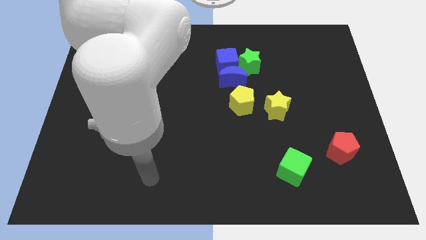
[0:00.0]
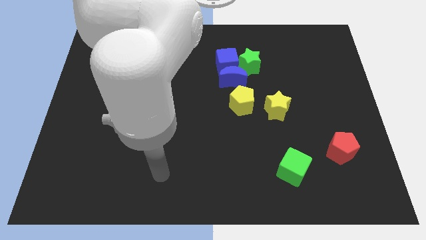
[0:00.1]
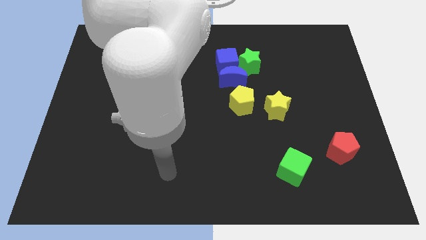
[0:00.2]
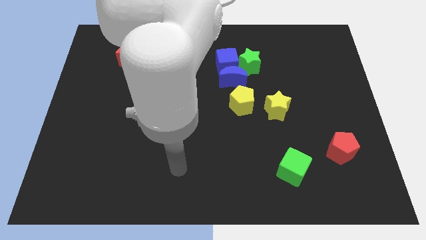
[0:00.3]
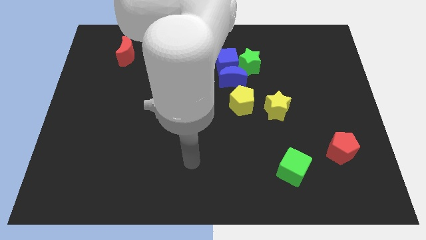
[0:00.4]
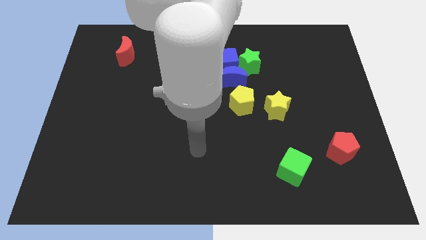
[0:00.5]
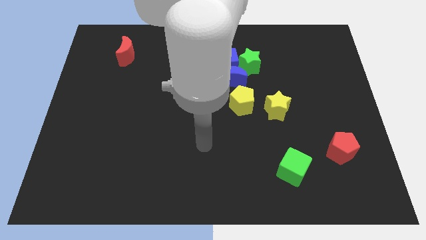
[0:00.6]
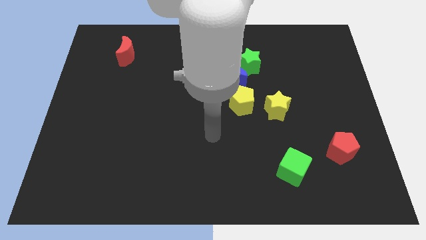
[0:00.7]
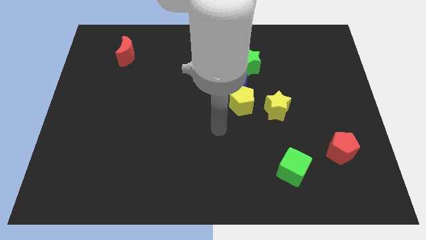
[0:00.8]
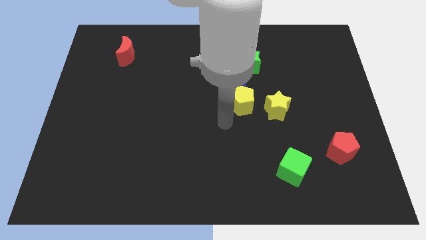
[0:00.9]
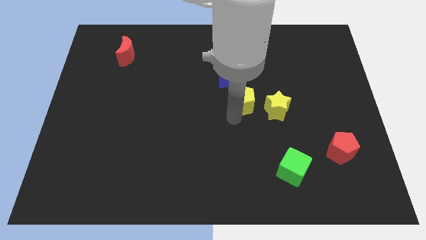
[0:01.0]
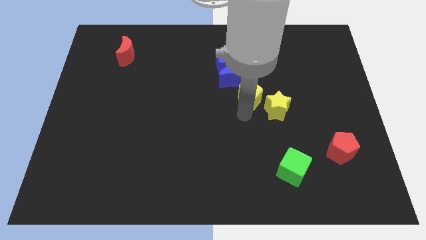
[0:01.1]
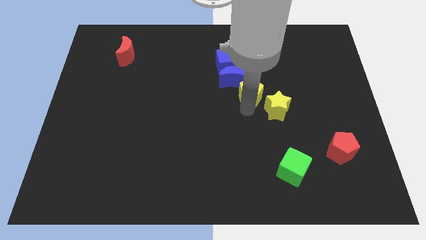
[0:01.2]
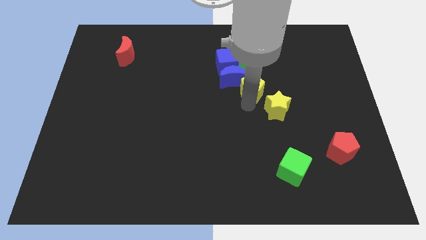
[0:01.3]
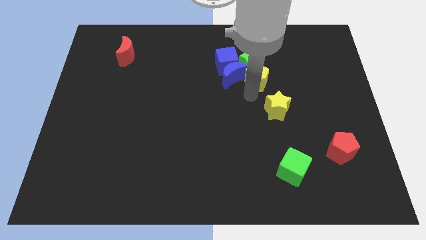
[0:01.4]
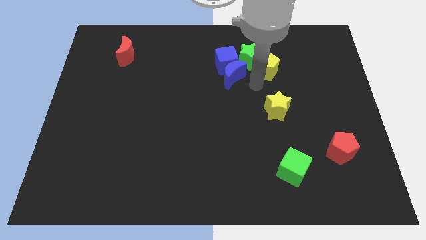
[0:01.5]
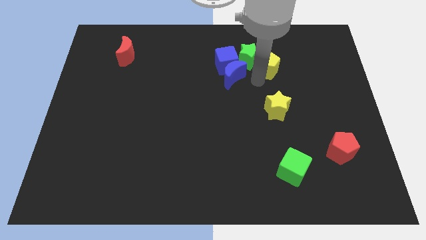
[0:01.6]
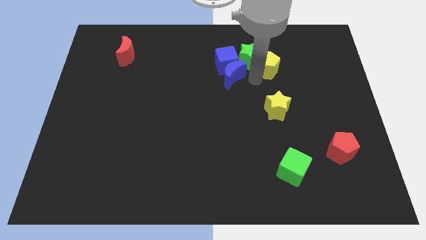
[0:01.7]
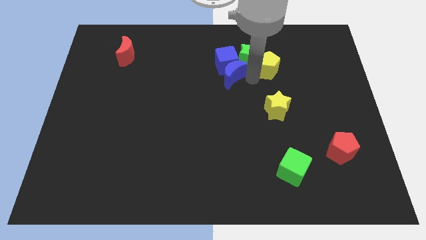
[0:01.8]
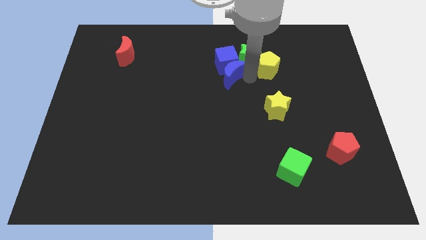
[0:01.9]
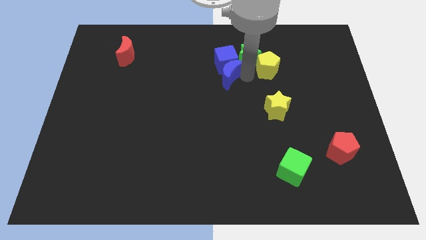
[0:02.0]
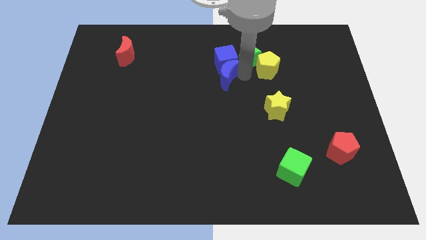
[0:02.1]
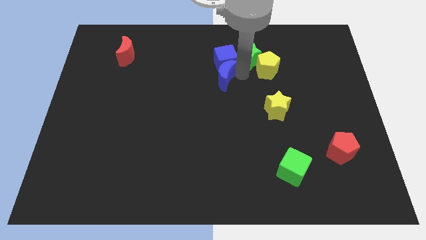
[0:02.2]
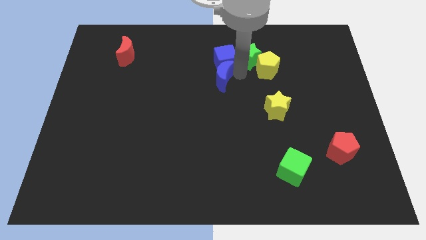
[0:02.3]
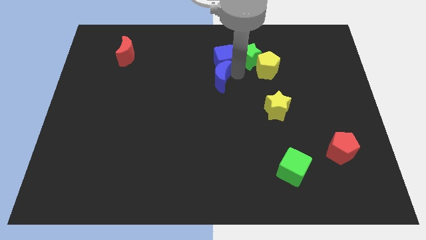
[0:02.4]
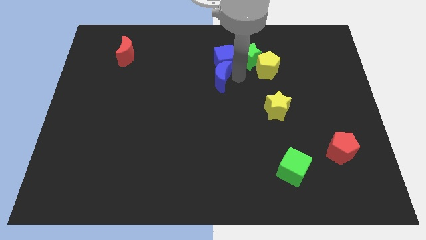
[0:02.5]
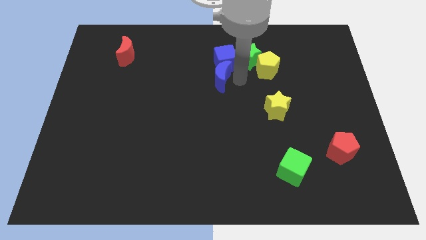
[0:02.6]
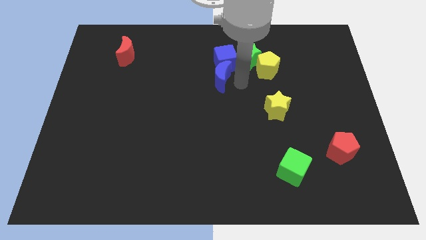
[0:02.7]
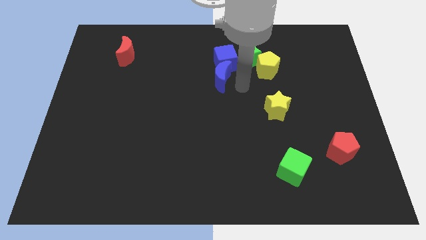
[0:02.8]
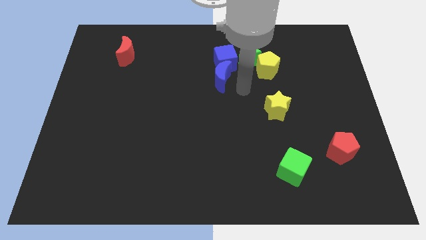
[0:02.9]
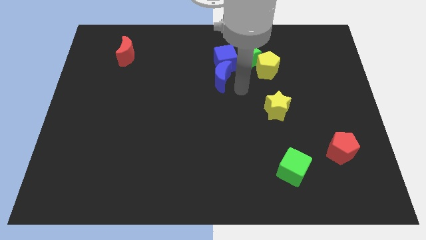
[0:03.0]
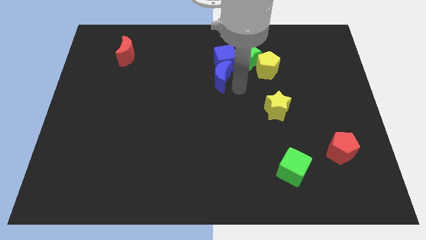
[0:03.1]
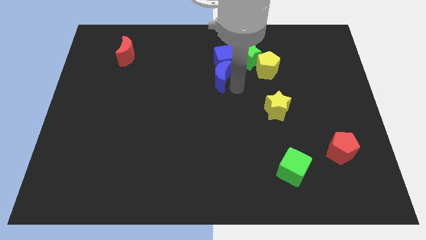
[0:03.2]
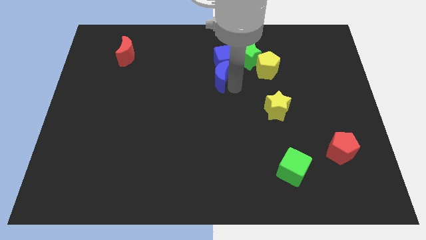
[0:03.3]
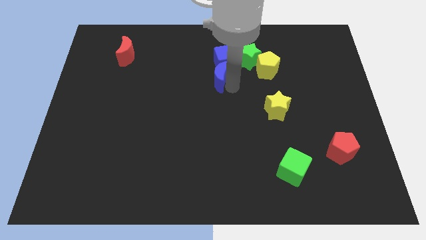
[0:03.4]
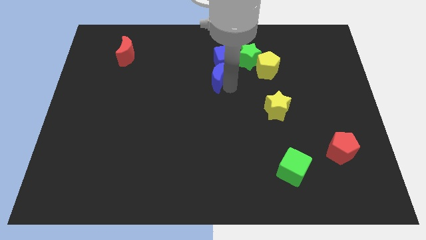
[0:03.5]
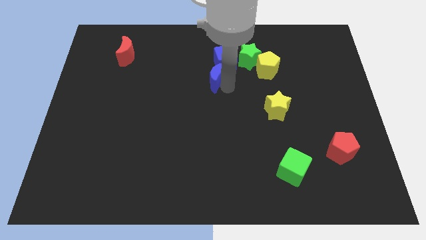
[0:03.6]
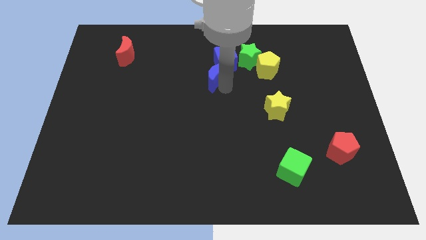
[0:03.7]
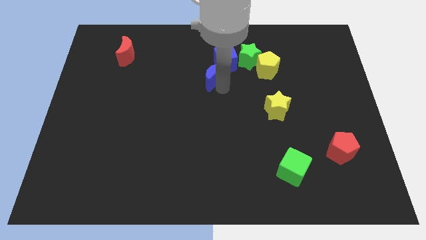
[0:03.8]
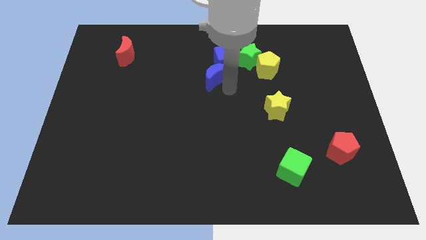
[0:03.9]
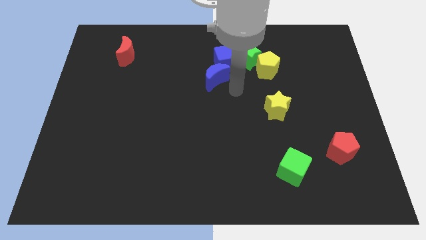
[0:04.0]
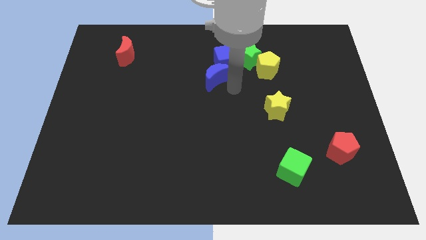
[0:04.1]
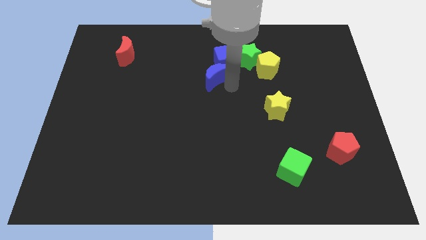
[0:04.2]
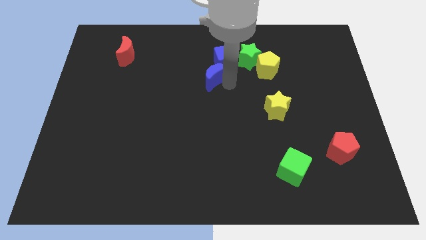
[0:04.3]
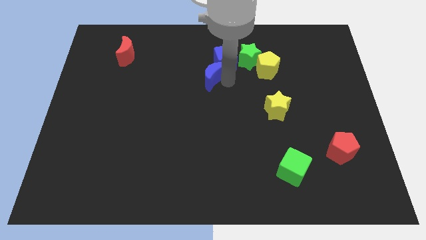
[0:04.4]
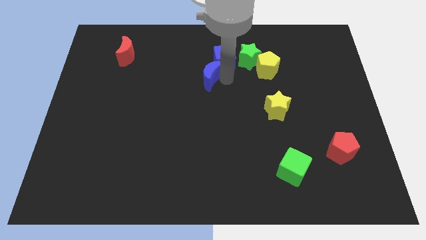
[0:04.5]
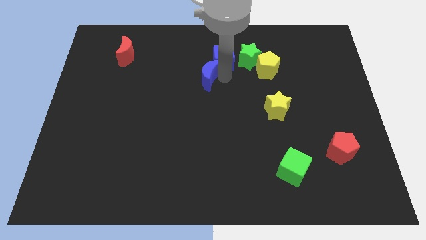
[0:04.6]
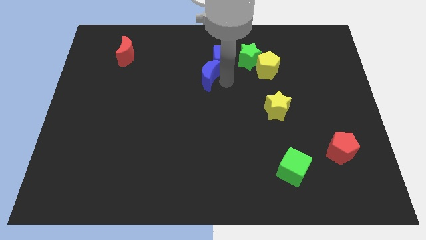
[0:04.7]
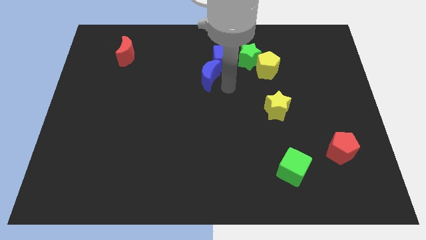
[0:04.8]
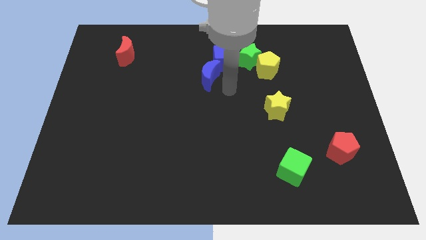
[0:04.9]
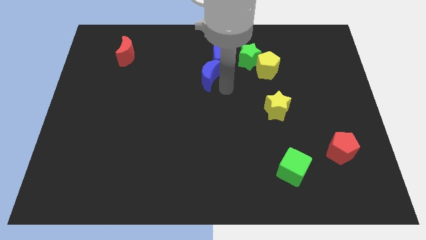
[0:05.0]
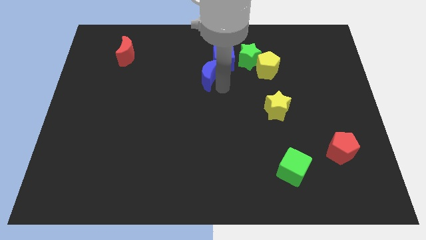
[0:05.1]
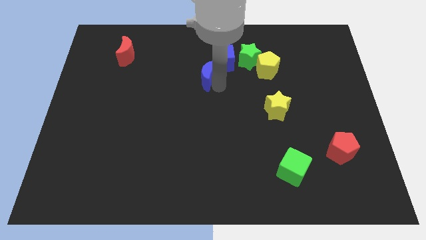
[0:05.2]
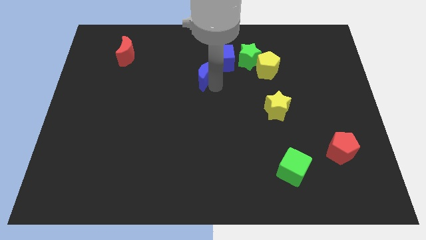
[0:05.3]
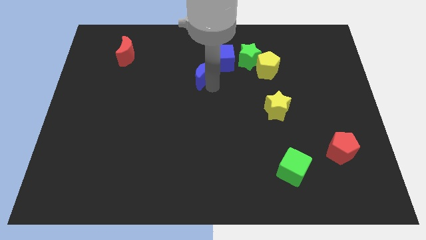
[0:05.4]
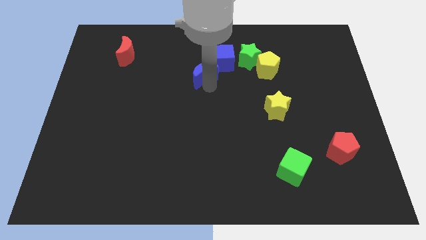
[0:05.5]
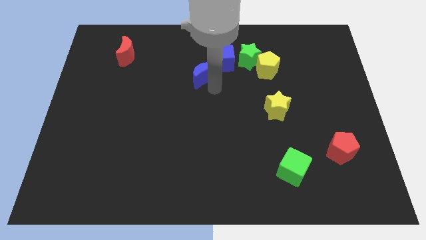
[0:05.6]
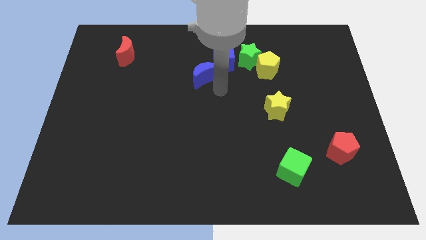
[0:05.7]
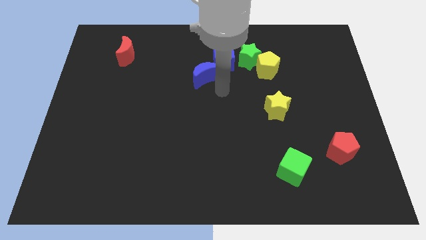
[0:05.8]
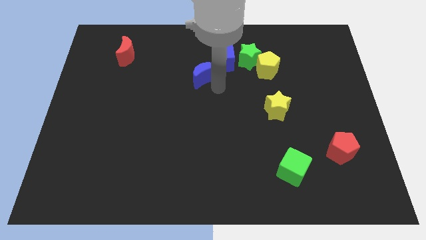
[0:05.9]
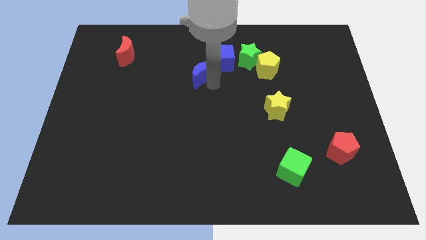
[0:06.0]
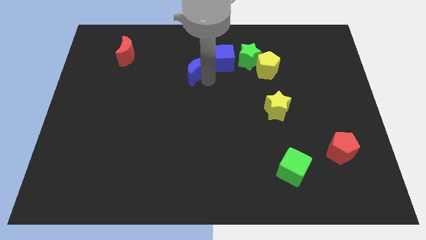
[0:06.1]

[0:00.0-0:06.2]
put the blue moon to the left side of the blue cube

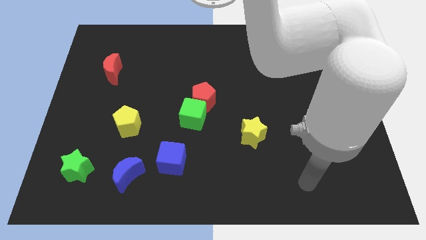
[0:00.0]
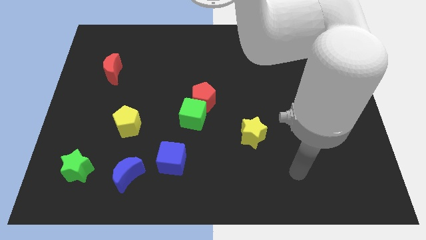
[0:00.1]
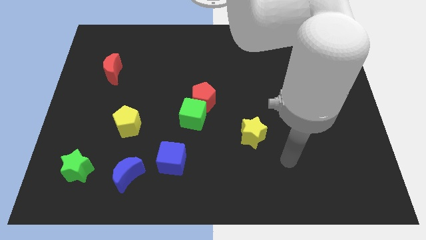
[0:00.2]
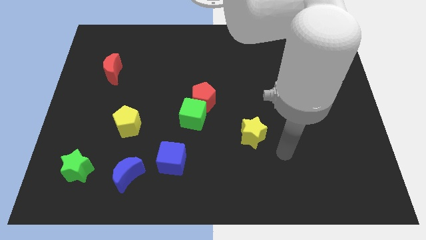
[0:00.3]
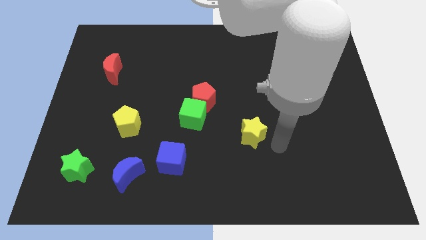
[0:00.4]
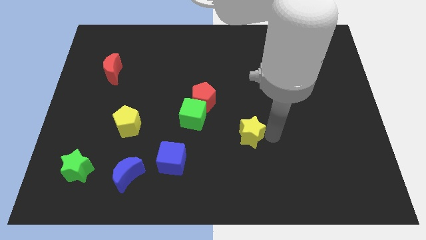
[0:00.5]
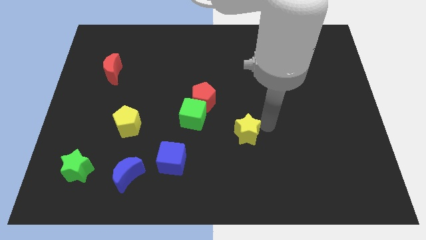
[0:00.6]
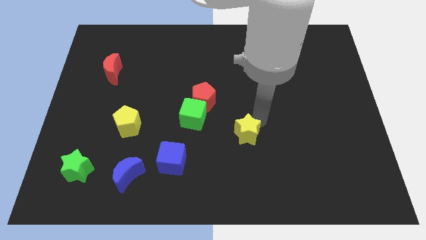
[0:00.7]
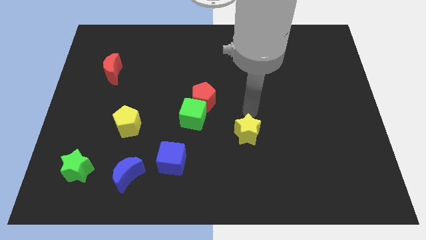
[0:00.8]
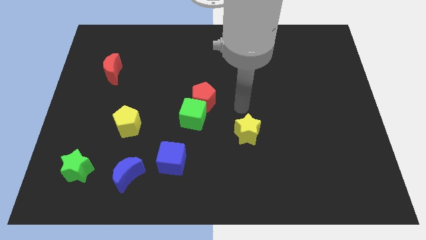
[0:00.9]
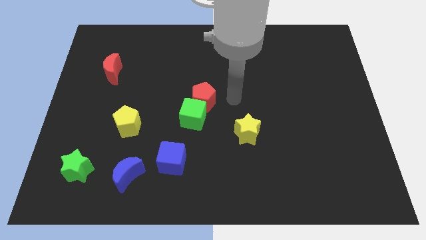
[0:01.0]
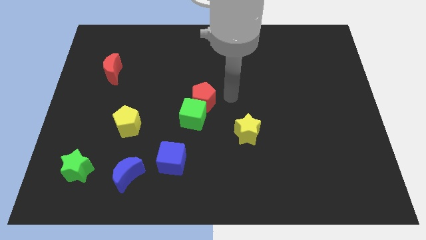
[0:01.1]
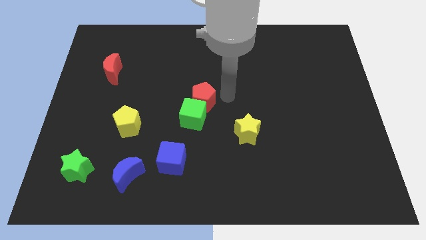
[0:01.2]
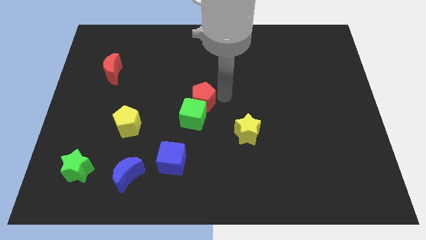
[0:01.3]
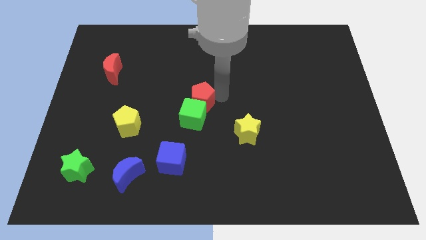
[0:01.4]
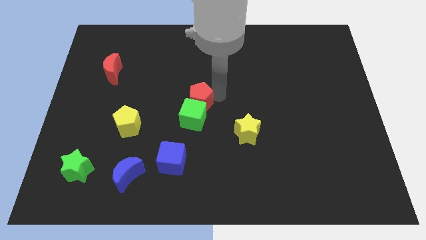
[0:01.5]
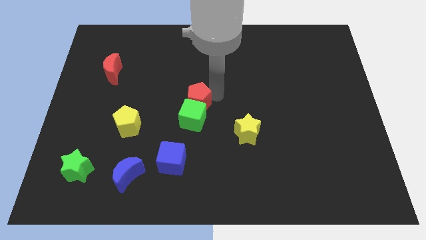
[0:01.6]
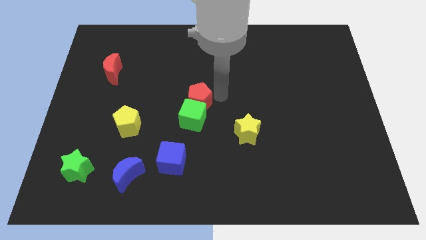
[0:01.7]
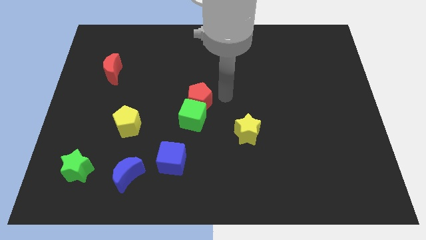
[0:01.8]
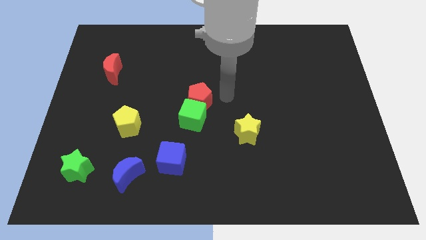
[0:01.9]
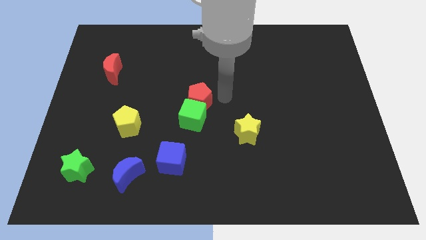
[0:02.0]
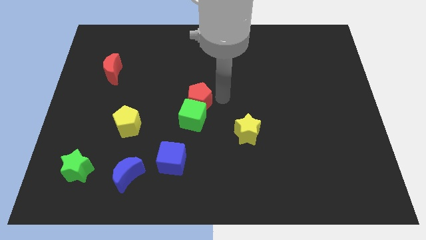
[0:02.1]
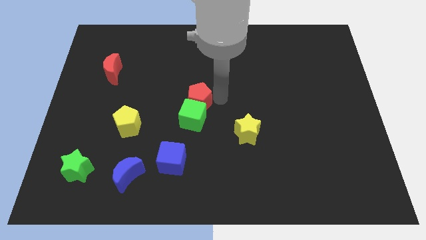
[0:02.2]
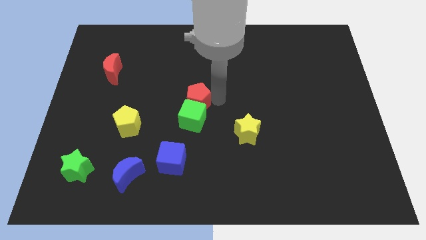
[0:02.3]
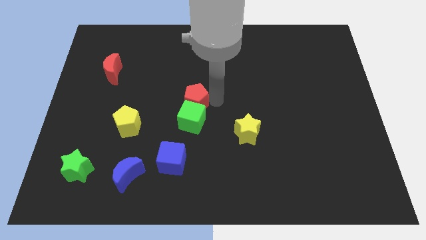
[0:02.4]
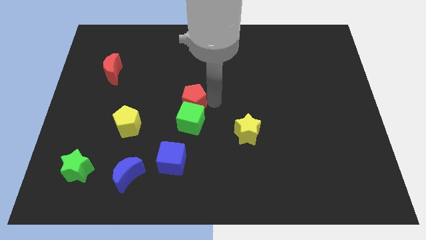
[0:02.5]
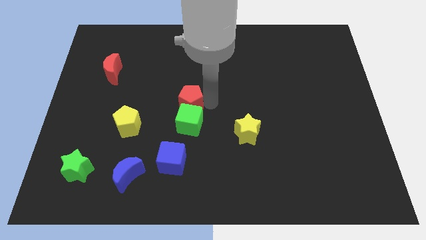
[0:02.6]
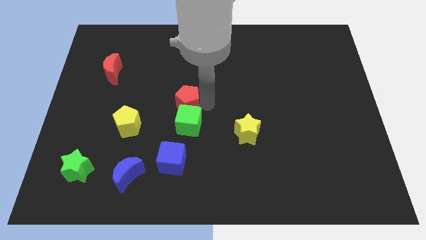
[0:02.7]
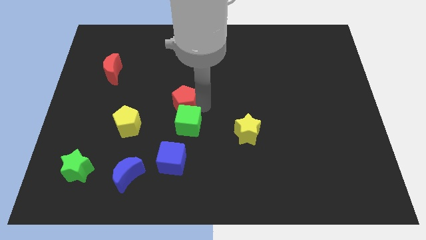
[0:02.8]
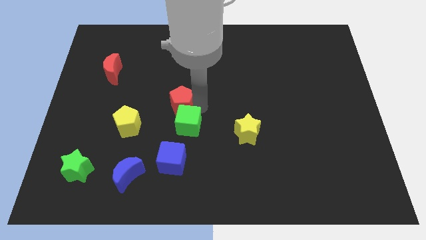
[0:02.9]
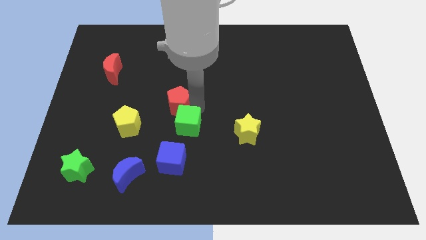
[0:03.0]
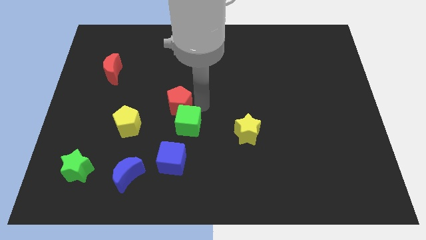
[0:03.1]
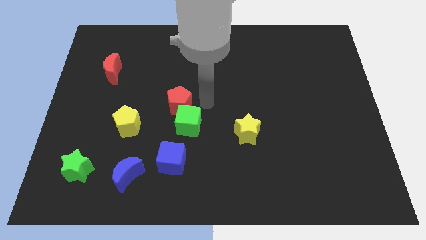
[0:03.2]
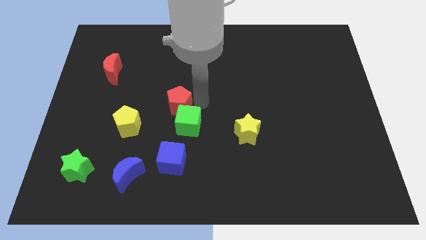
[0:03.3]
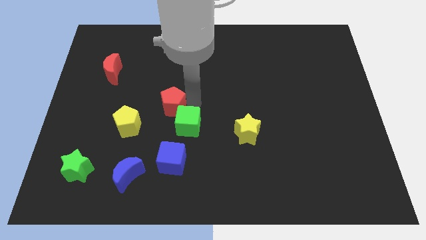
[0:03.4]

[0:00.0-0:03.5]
push the red pentagon diagonally up and to the right of the yellow pentagon
